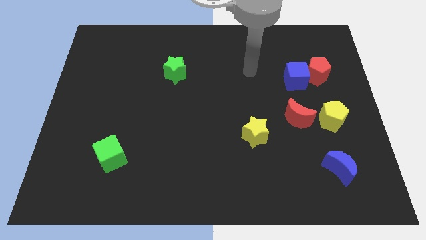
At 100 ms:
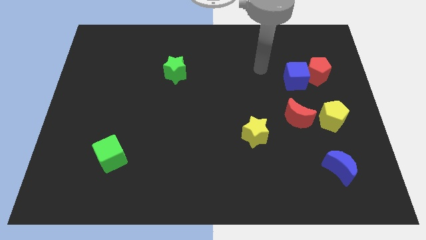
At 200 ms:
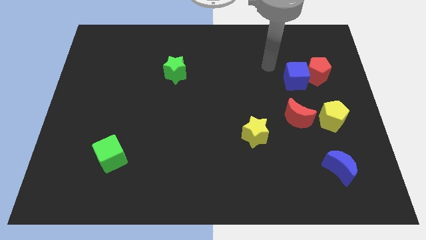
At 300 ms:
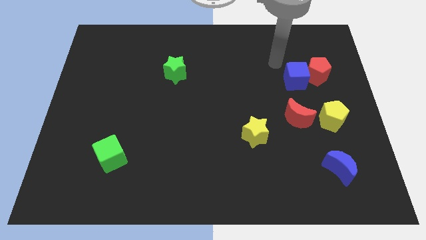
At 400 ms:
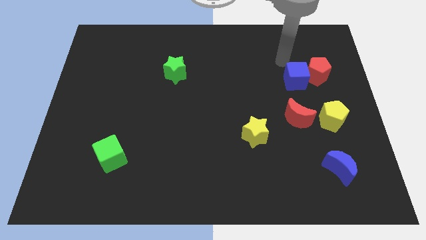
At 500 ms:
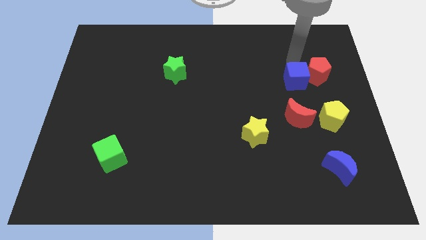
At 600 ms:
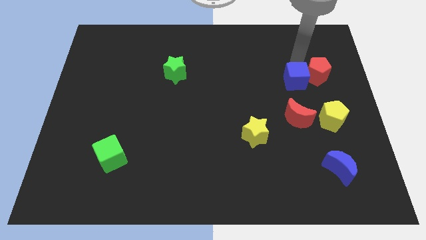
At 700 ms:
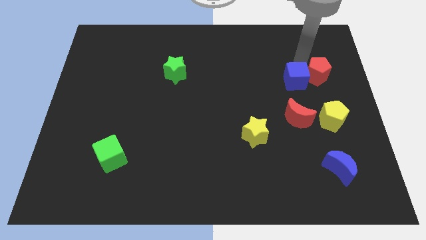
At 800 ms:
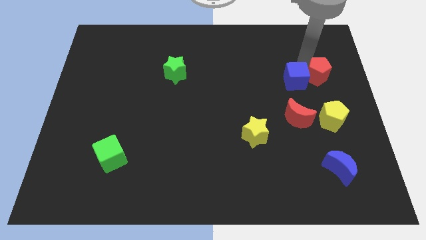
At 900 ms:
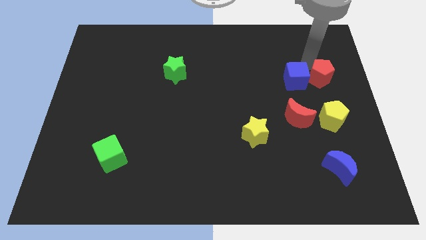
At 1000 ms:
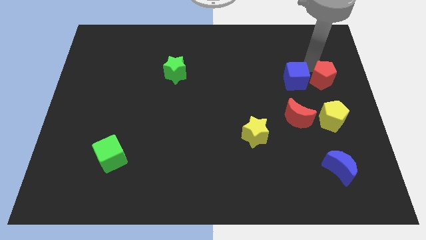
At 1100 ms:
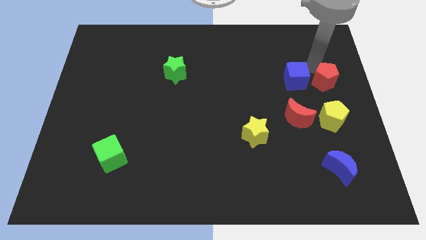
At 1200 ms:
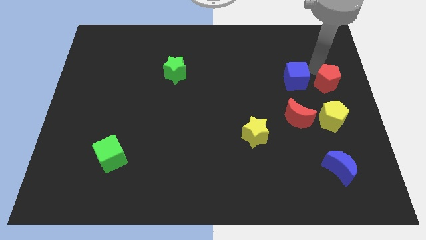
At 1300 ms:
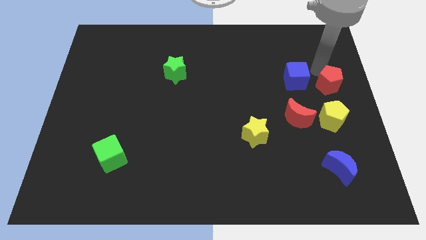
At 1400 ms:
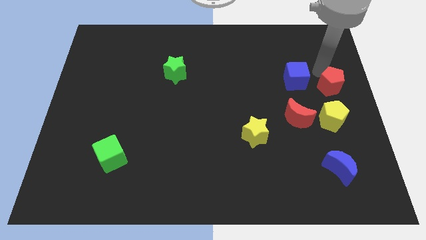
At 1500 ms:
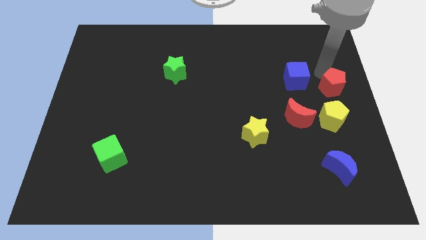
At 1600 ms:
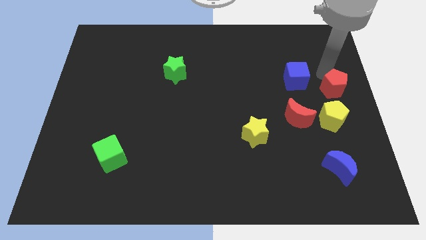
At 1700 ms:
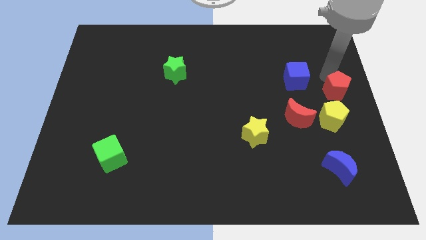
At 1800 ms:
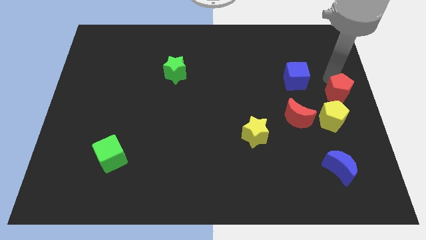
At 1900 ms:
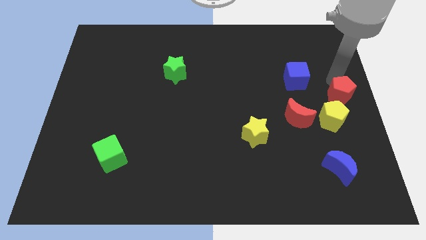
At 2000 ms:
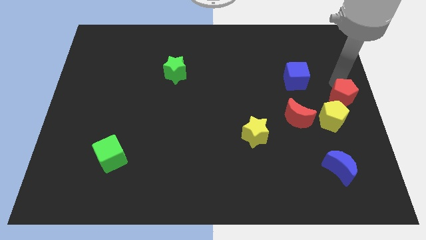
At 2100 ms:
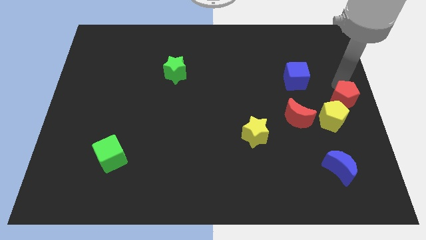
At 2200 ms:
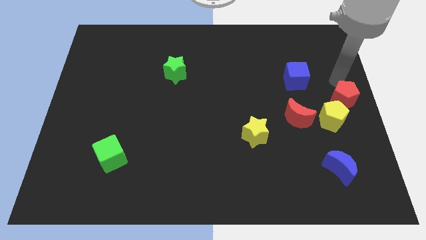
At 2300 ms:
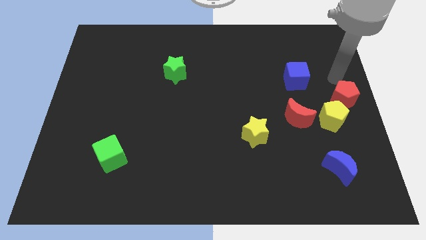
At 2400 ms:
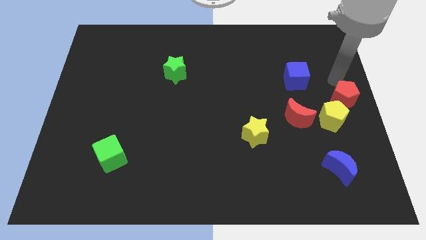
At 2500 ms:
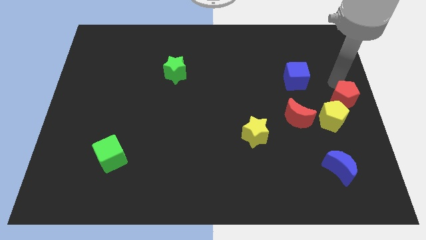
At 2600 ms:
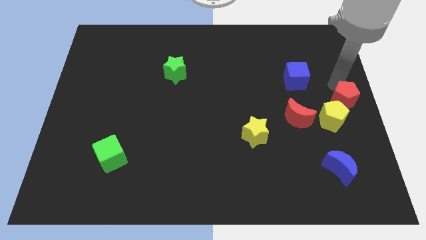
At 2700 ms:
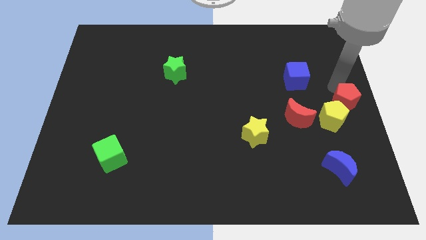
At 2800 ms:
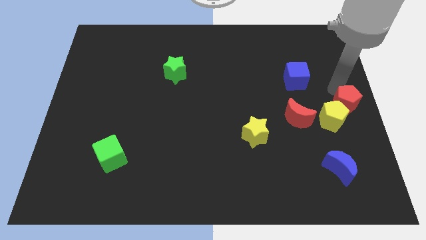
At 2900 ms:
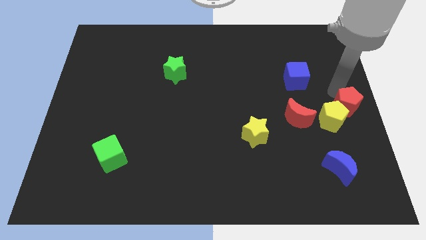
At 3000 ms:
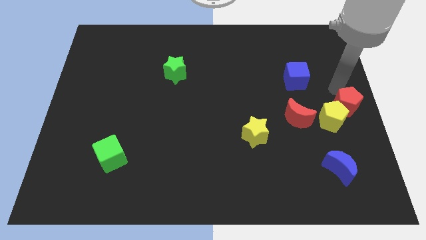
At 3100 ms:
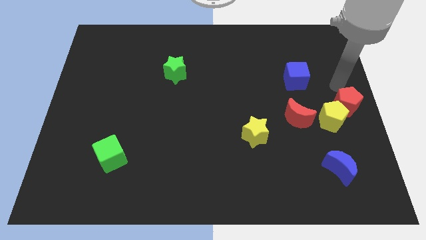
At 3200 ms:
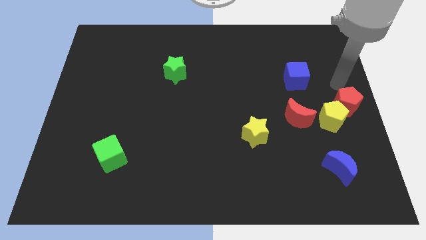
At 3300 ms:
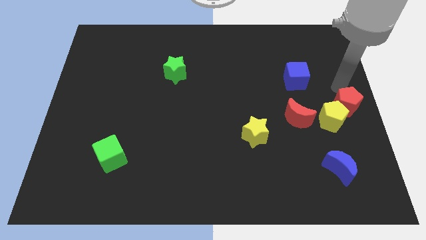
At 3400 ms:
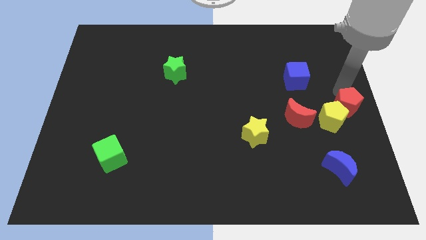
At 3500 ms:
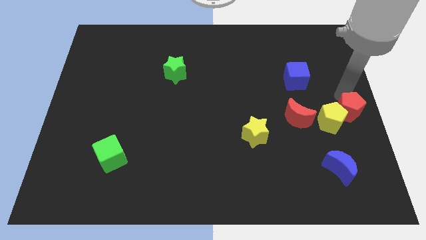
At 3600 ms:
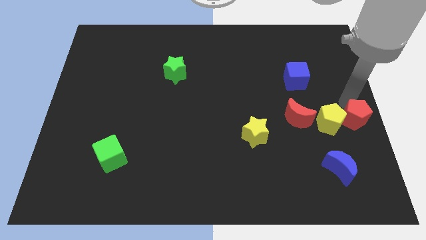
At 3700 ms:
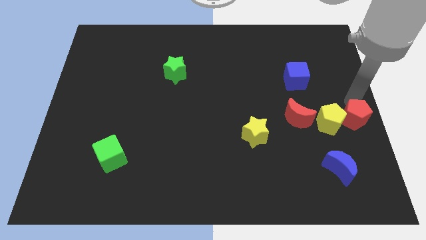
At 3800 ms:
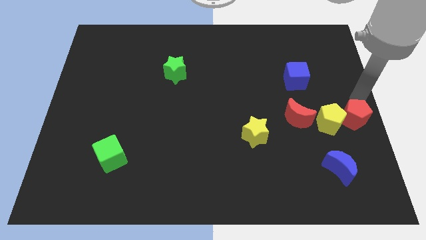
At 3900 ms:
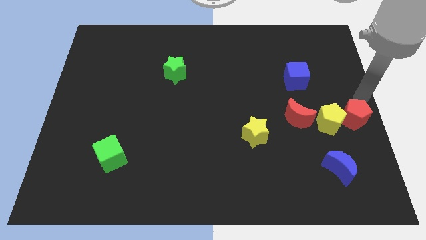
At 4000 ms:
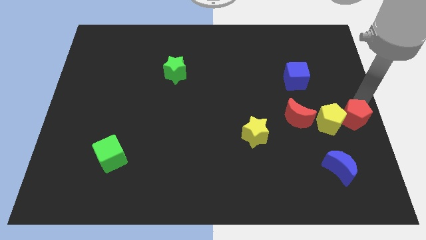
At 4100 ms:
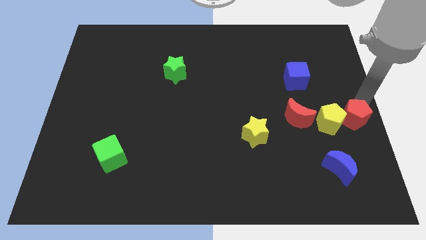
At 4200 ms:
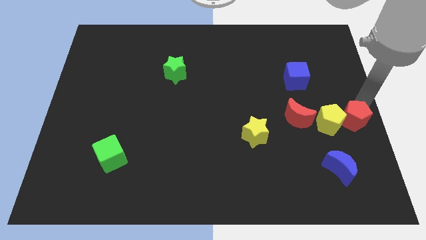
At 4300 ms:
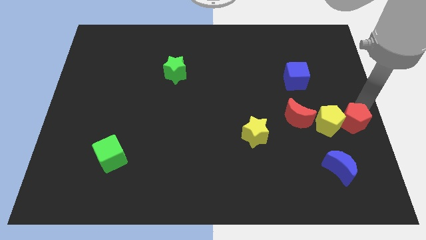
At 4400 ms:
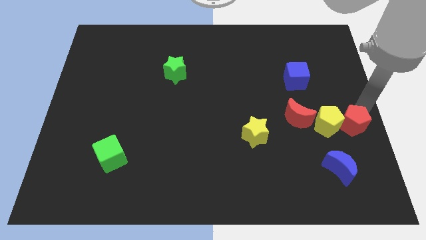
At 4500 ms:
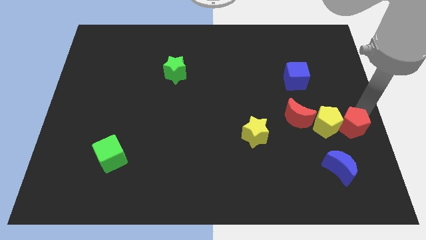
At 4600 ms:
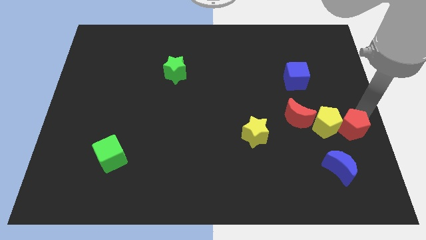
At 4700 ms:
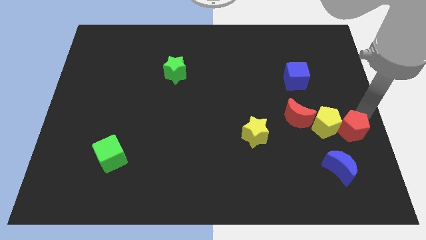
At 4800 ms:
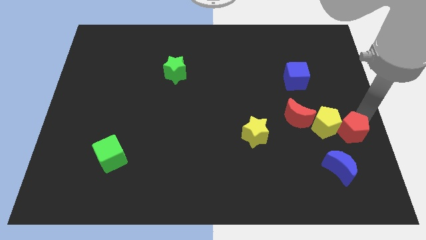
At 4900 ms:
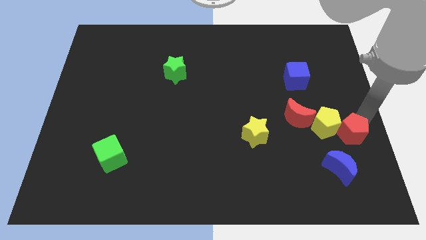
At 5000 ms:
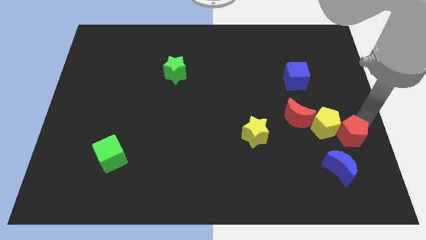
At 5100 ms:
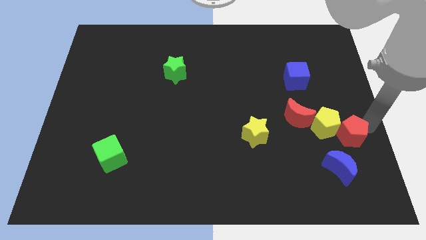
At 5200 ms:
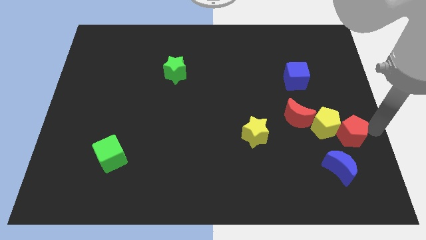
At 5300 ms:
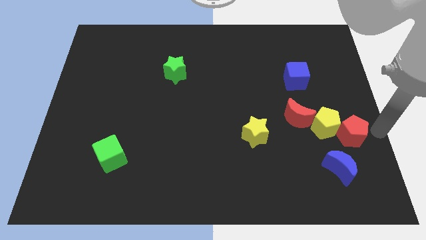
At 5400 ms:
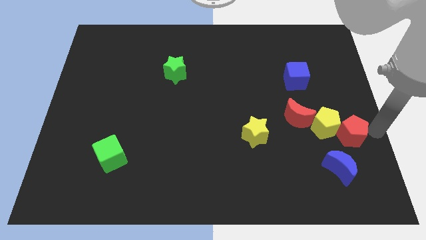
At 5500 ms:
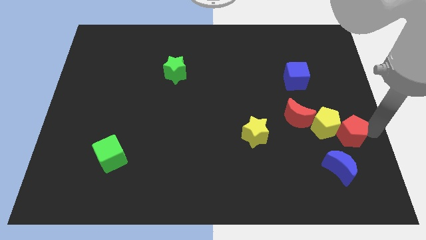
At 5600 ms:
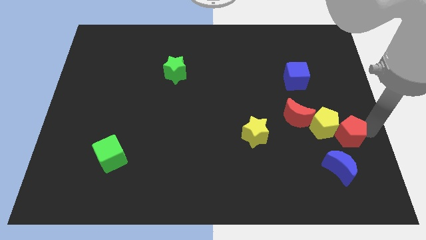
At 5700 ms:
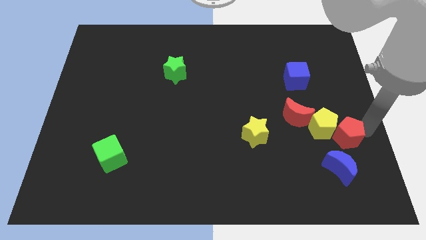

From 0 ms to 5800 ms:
push the red pentagon diagonally down and to the right of the red moon
